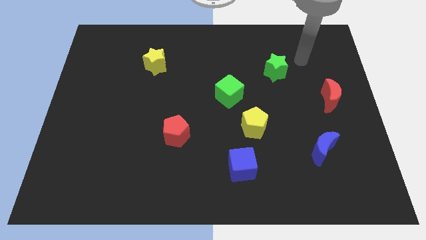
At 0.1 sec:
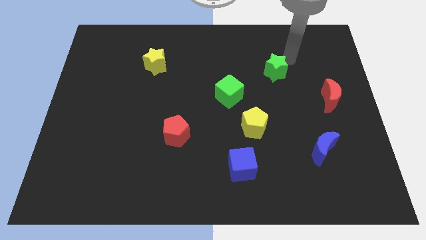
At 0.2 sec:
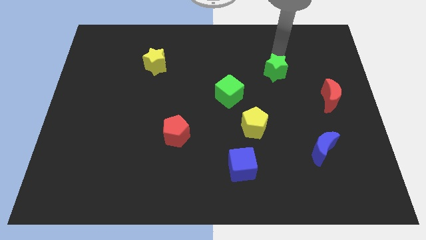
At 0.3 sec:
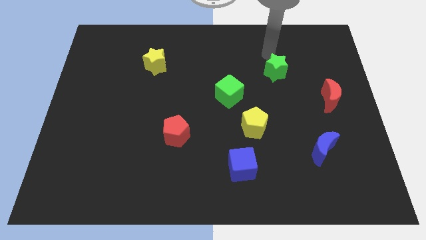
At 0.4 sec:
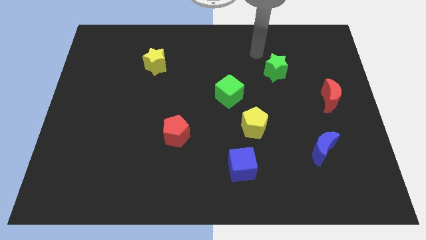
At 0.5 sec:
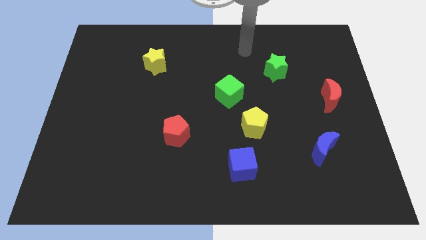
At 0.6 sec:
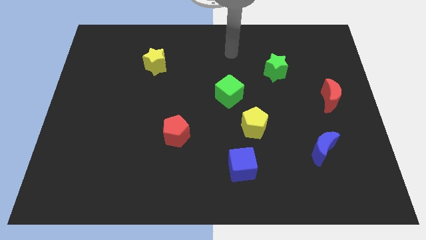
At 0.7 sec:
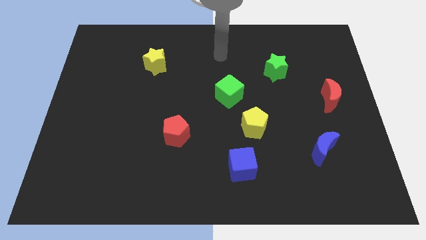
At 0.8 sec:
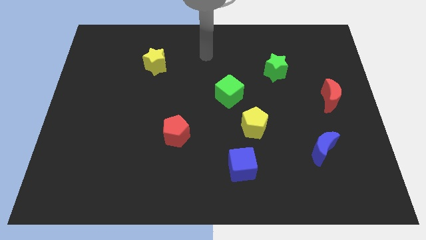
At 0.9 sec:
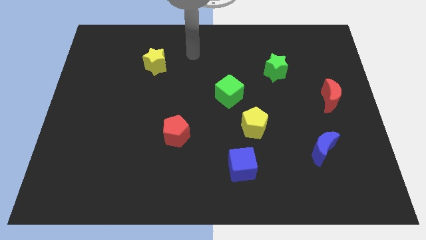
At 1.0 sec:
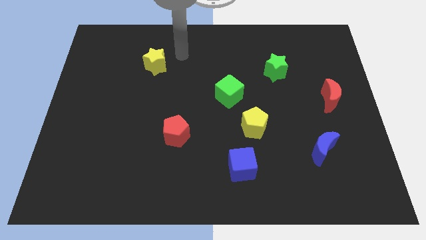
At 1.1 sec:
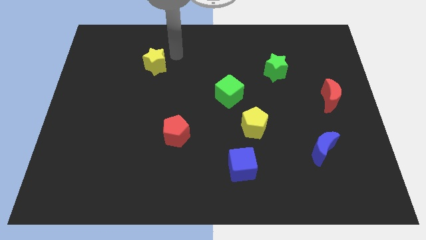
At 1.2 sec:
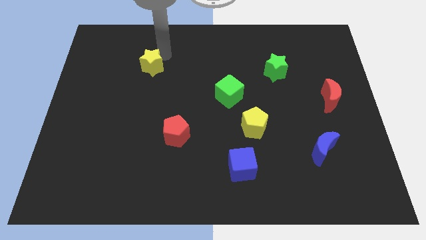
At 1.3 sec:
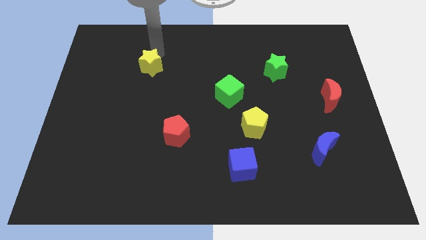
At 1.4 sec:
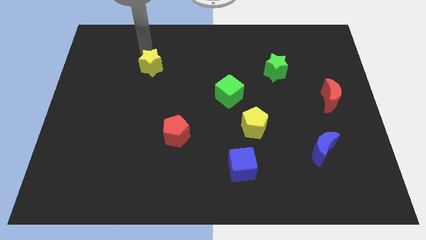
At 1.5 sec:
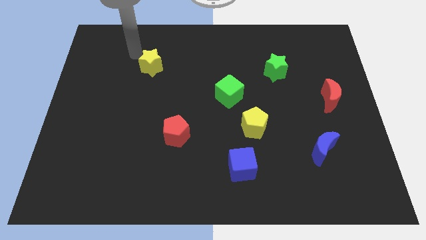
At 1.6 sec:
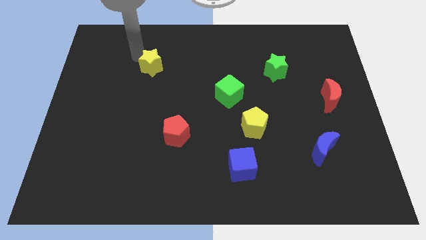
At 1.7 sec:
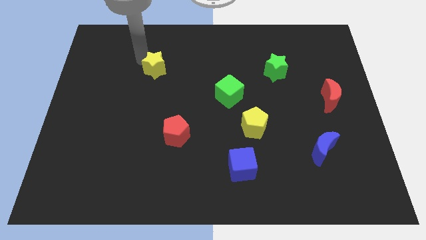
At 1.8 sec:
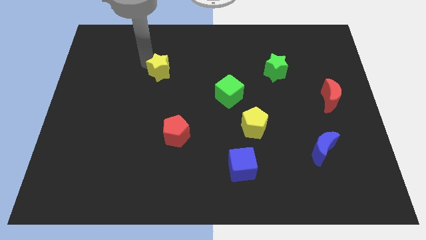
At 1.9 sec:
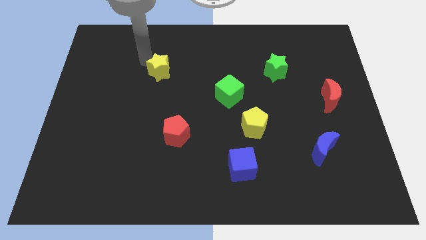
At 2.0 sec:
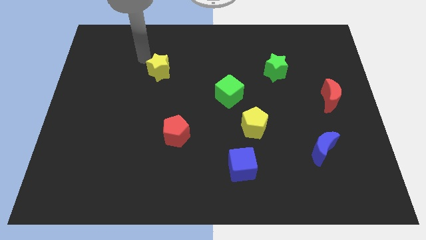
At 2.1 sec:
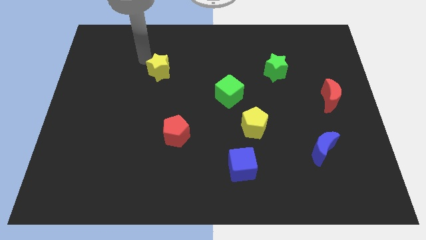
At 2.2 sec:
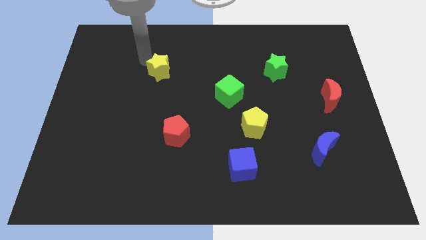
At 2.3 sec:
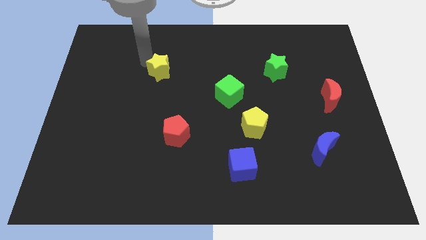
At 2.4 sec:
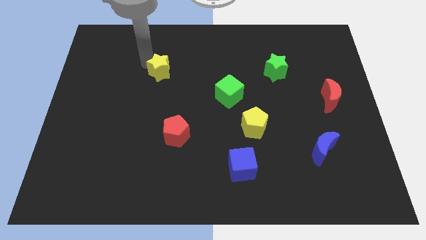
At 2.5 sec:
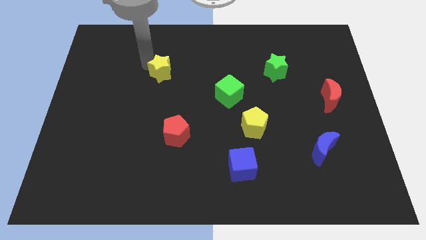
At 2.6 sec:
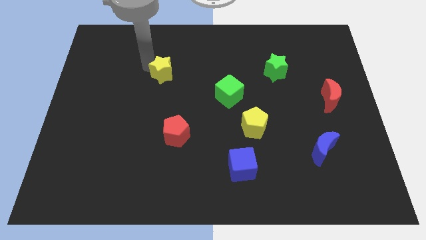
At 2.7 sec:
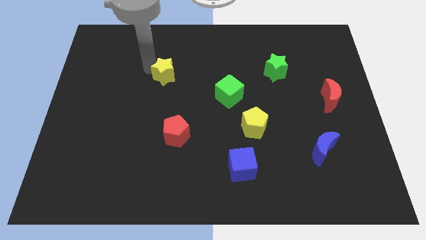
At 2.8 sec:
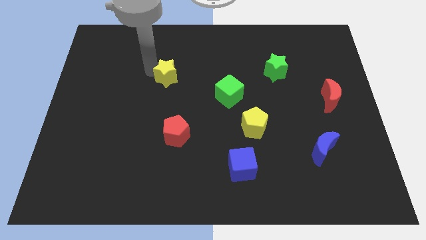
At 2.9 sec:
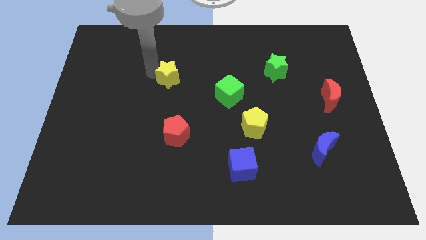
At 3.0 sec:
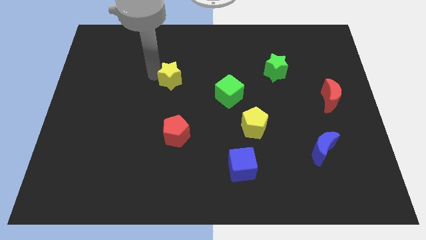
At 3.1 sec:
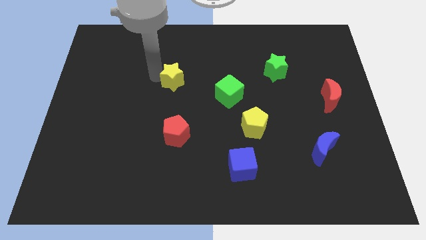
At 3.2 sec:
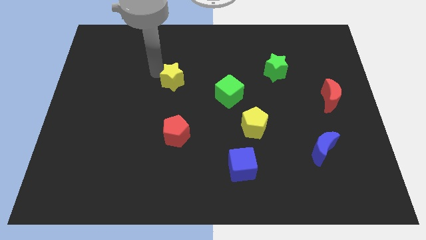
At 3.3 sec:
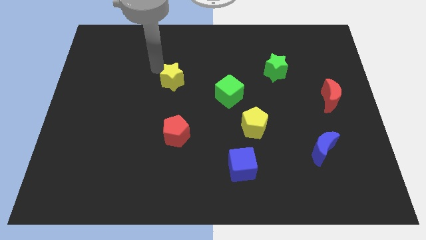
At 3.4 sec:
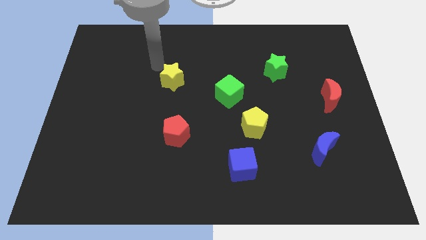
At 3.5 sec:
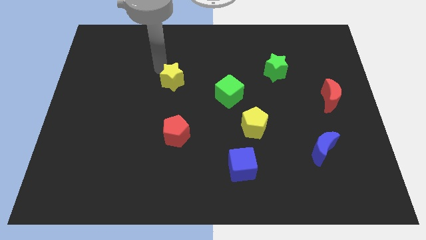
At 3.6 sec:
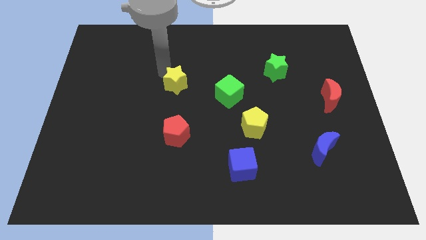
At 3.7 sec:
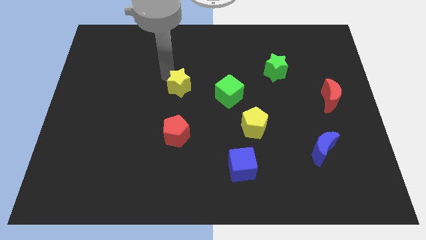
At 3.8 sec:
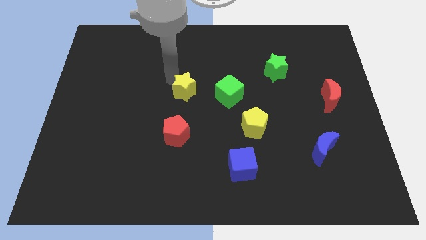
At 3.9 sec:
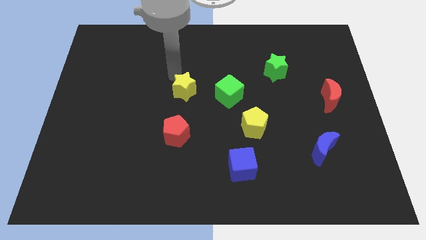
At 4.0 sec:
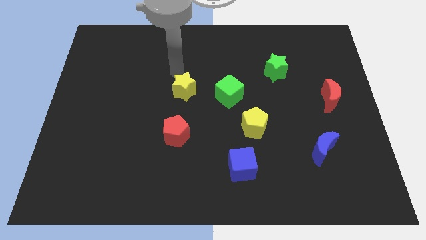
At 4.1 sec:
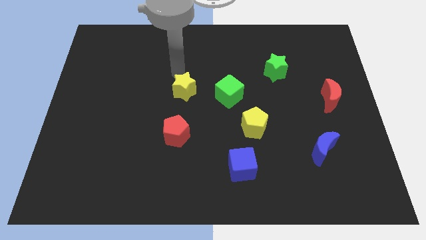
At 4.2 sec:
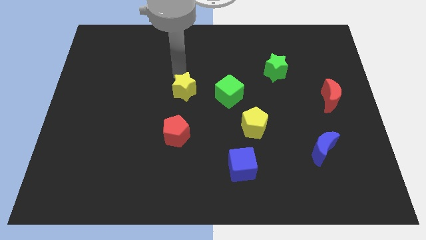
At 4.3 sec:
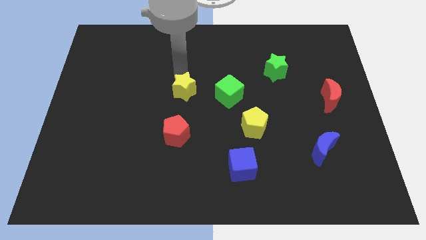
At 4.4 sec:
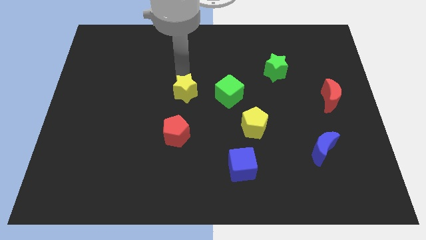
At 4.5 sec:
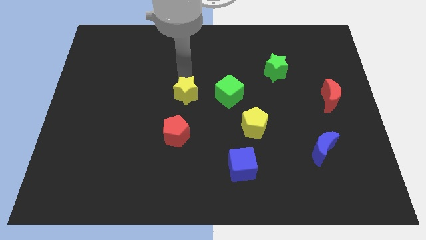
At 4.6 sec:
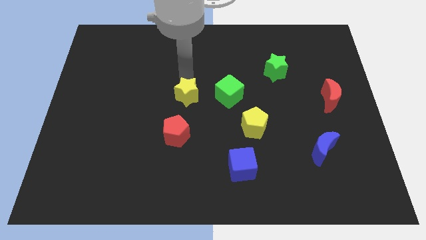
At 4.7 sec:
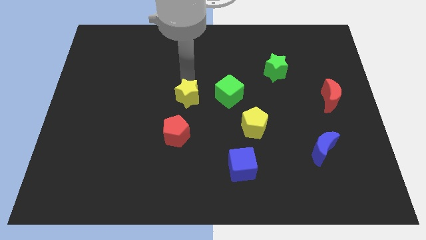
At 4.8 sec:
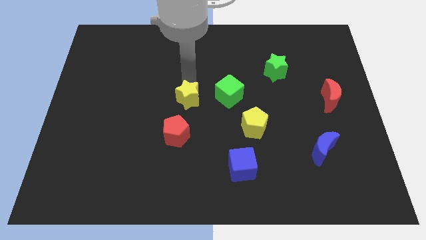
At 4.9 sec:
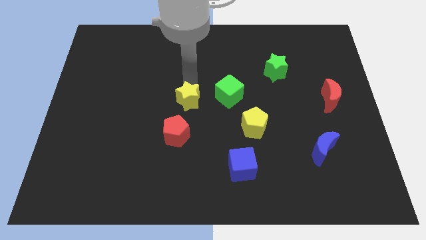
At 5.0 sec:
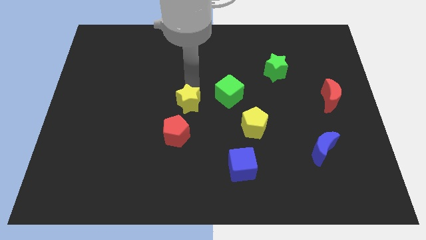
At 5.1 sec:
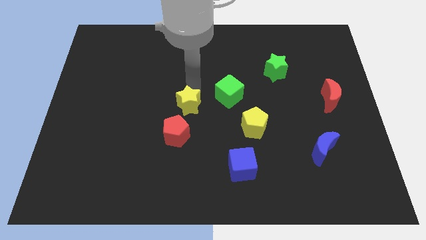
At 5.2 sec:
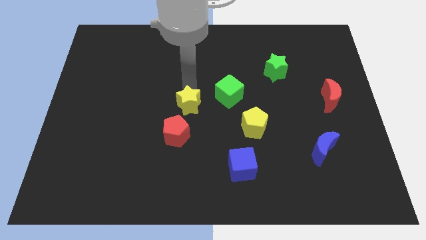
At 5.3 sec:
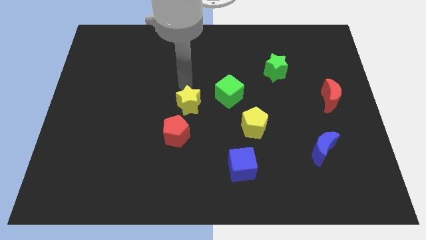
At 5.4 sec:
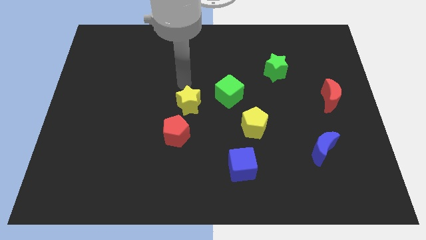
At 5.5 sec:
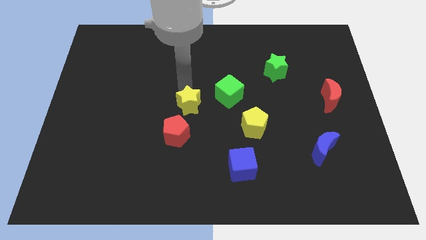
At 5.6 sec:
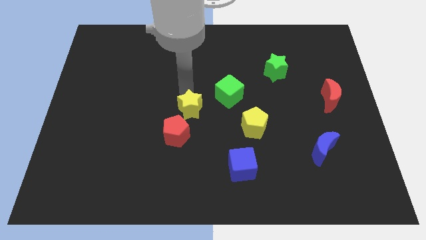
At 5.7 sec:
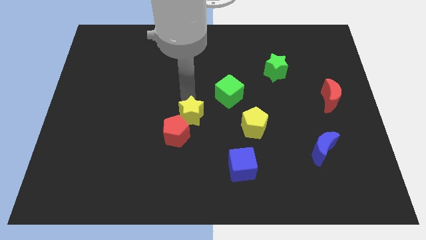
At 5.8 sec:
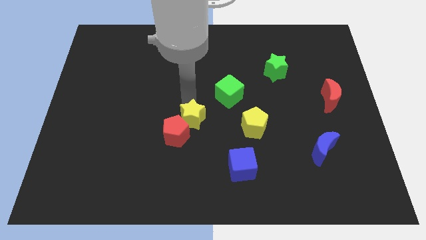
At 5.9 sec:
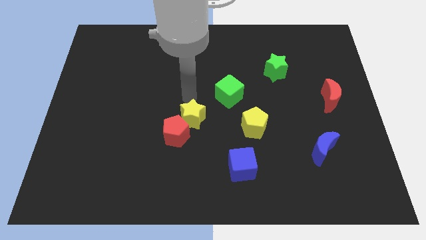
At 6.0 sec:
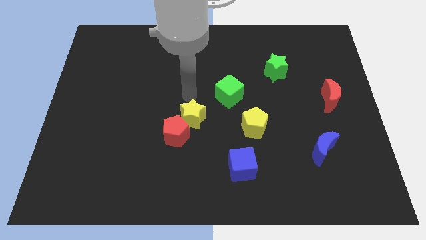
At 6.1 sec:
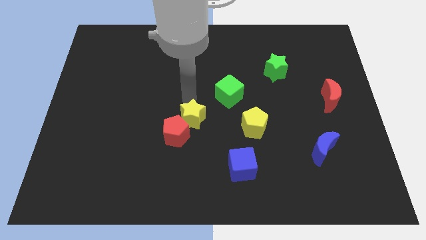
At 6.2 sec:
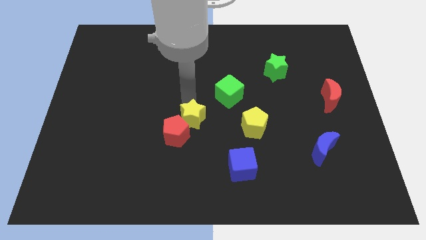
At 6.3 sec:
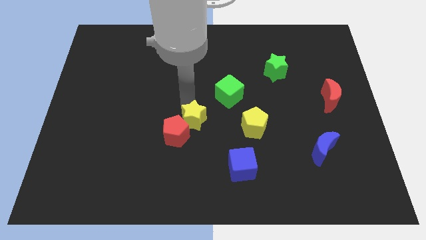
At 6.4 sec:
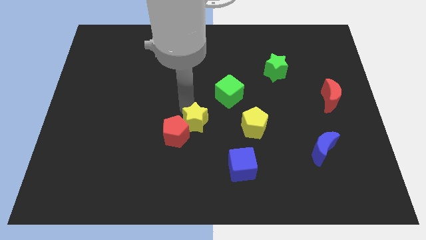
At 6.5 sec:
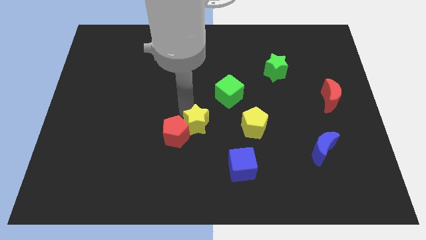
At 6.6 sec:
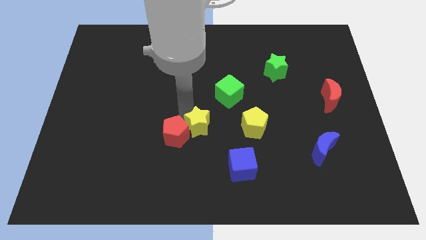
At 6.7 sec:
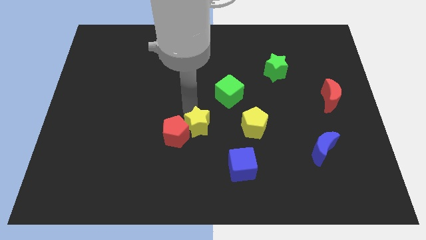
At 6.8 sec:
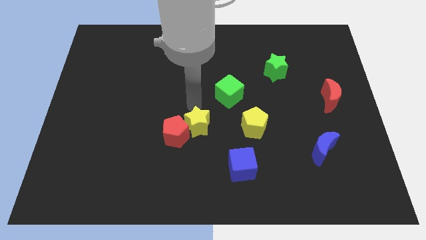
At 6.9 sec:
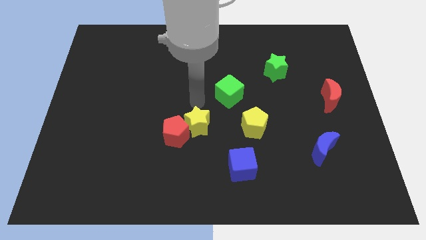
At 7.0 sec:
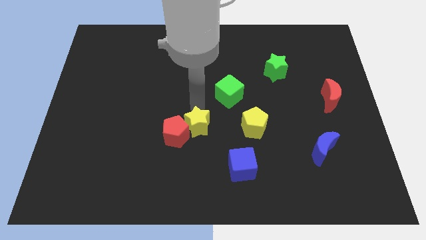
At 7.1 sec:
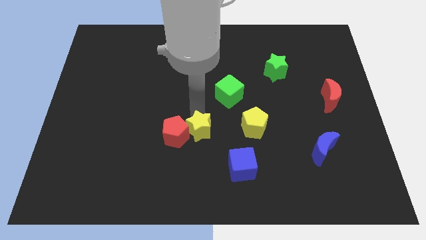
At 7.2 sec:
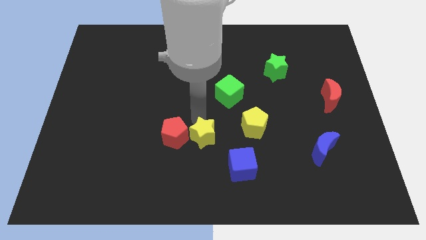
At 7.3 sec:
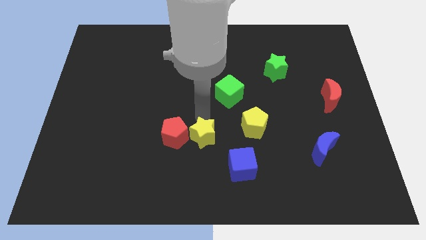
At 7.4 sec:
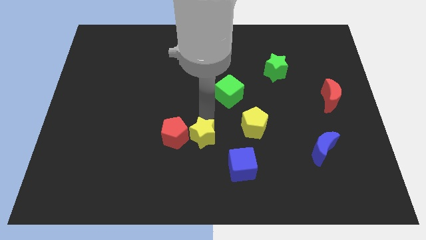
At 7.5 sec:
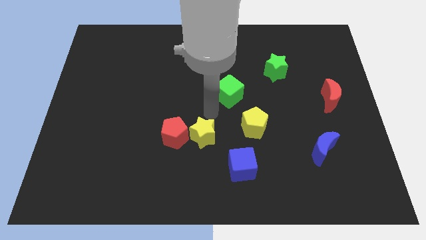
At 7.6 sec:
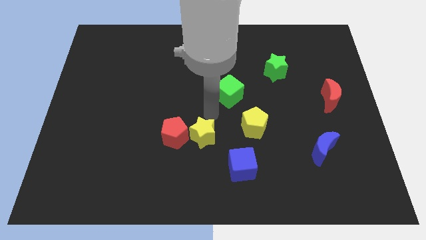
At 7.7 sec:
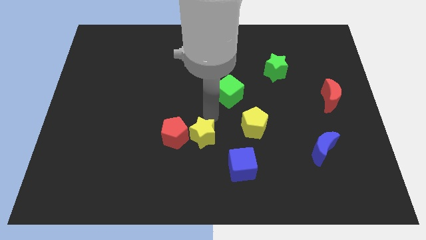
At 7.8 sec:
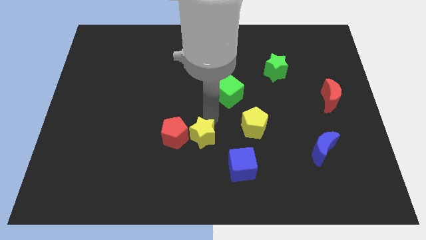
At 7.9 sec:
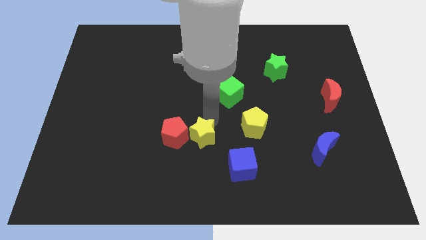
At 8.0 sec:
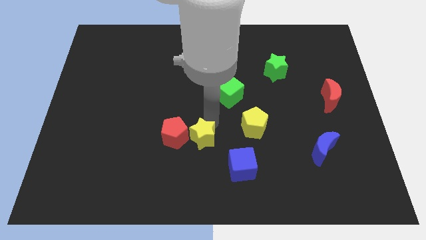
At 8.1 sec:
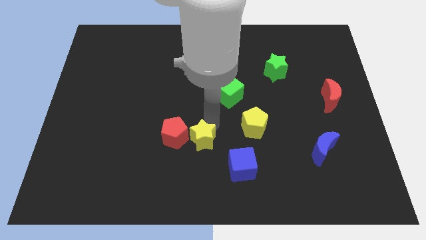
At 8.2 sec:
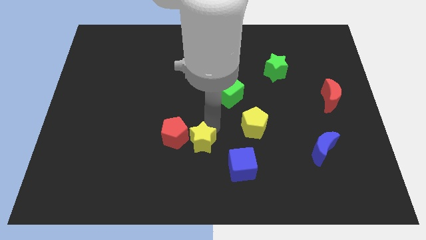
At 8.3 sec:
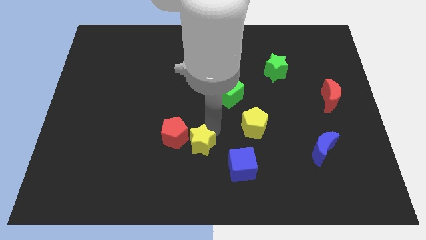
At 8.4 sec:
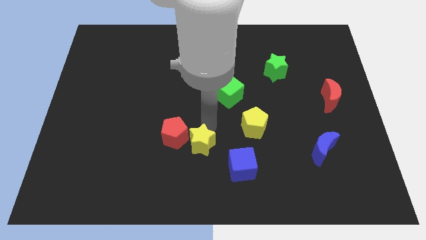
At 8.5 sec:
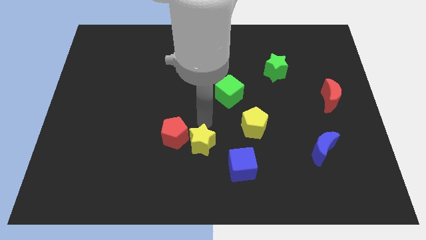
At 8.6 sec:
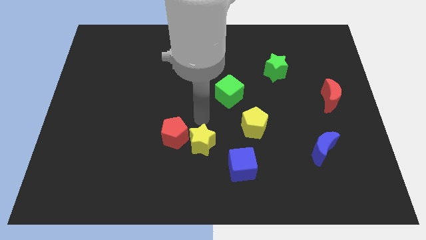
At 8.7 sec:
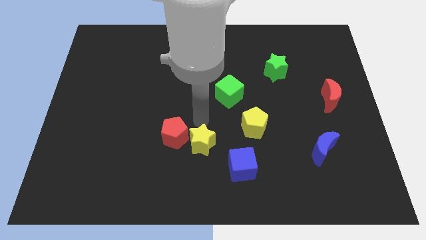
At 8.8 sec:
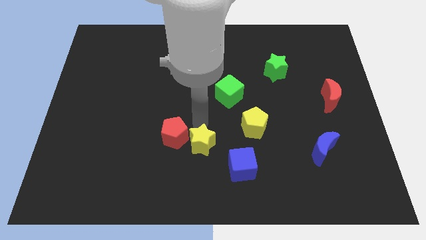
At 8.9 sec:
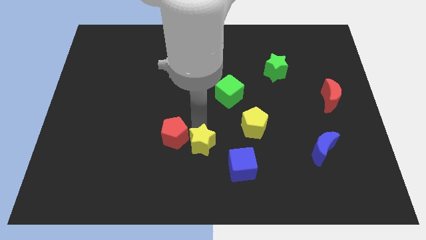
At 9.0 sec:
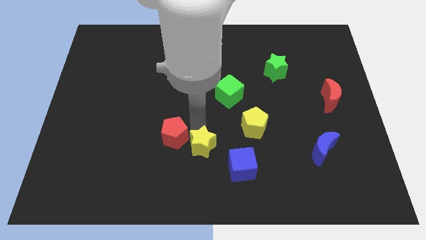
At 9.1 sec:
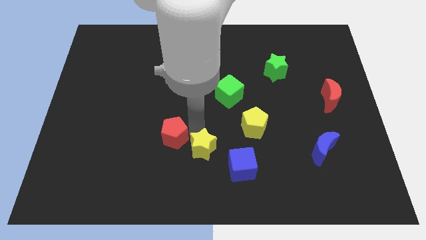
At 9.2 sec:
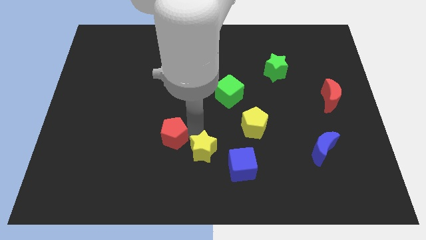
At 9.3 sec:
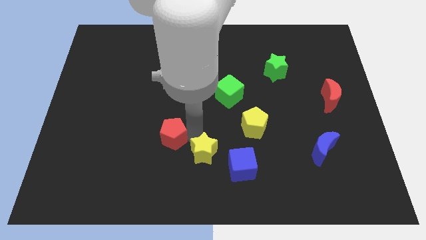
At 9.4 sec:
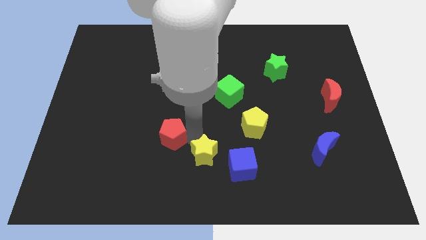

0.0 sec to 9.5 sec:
move the yellow star to the bottom
